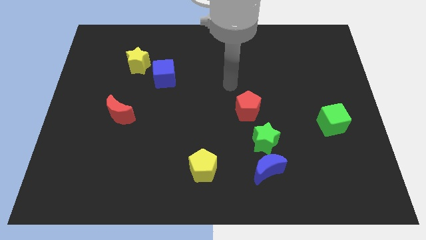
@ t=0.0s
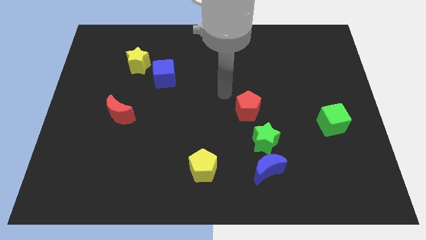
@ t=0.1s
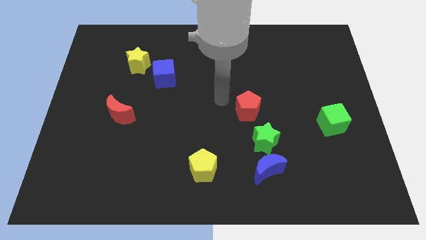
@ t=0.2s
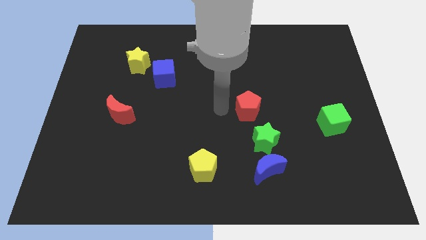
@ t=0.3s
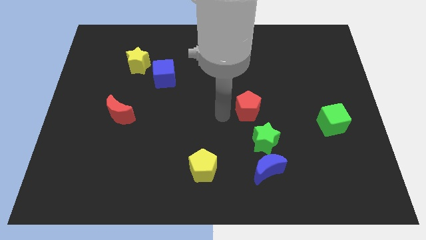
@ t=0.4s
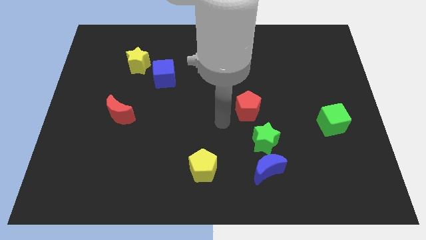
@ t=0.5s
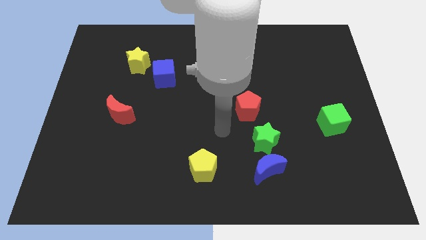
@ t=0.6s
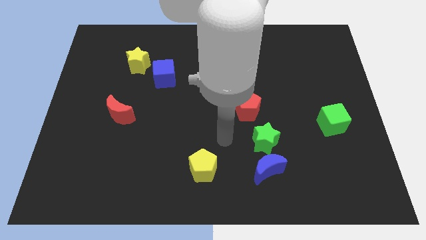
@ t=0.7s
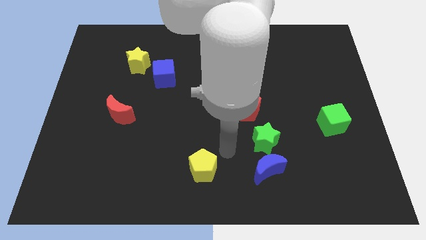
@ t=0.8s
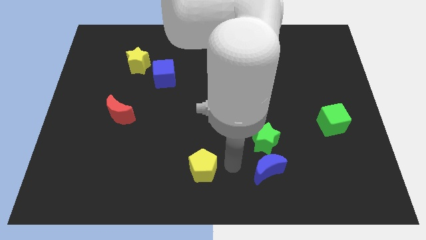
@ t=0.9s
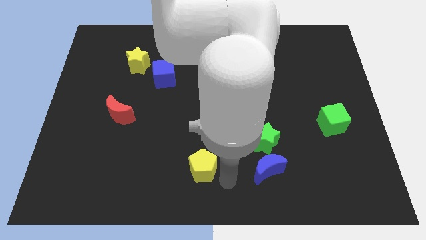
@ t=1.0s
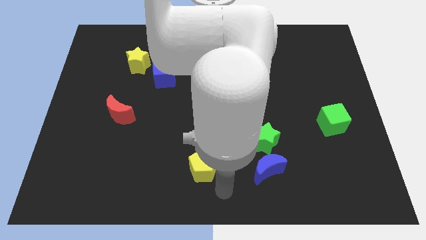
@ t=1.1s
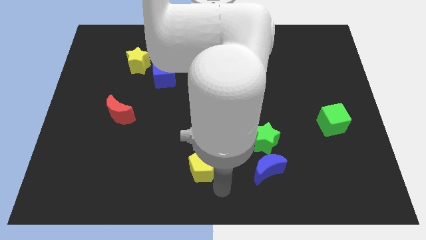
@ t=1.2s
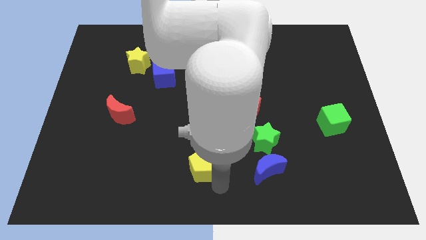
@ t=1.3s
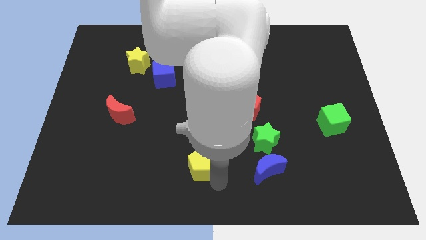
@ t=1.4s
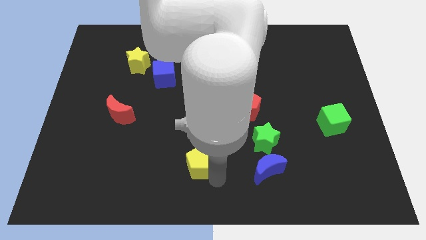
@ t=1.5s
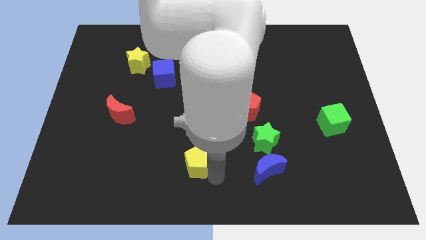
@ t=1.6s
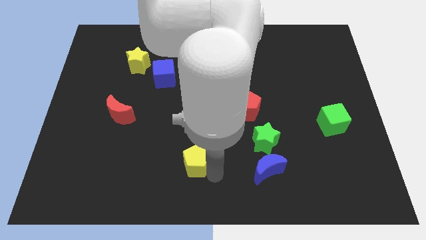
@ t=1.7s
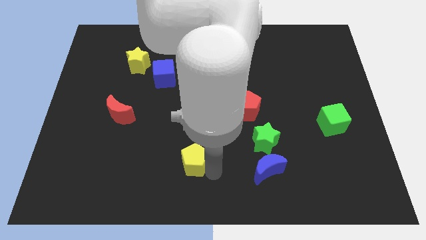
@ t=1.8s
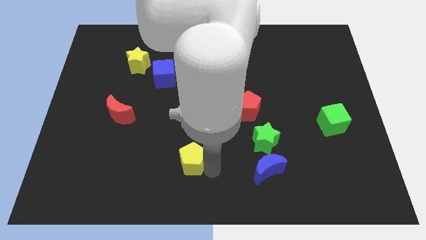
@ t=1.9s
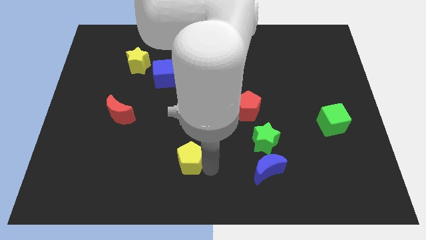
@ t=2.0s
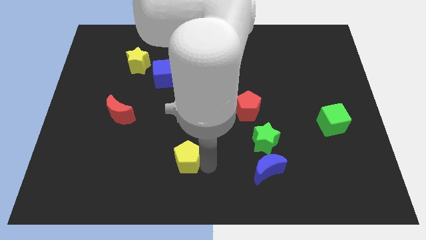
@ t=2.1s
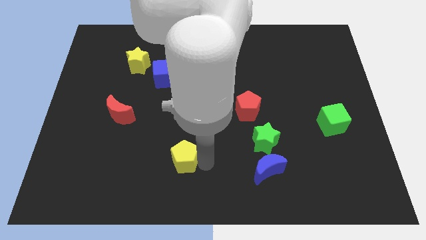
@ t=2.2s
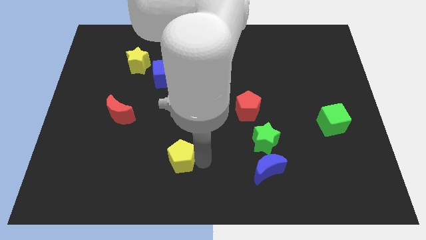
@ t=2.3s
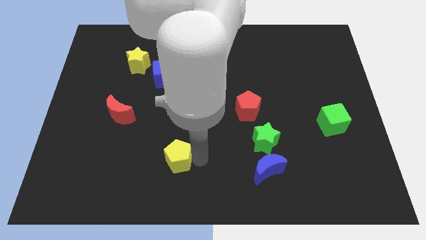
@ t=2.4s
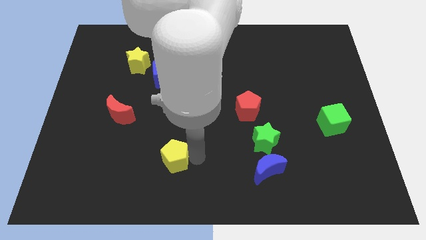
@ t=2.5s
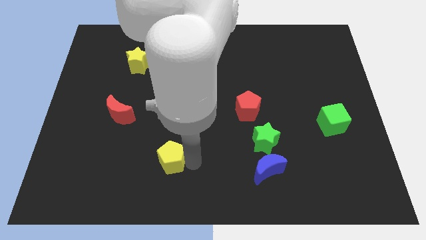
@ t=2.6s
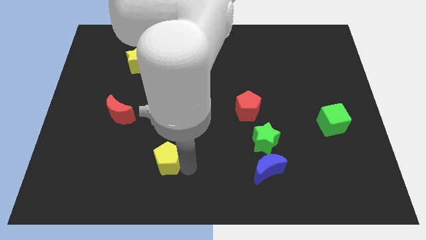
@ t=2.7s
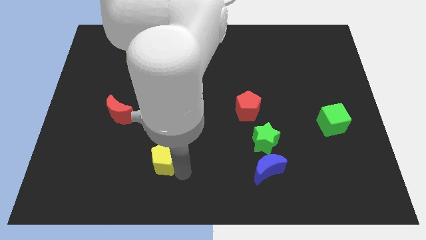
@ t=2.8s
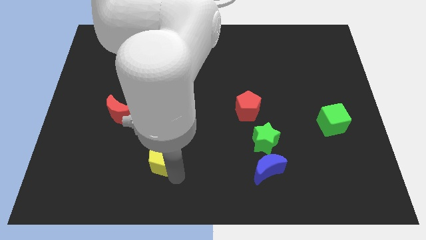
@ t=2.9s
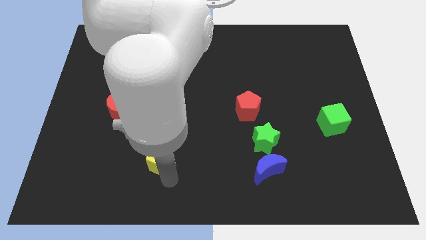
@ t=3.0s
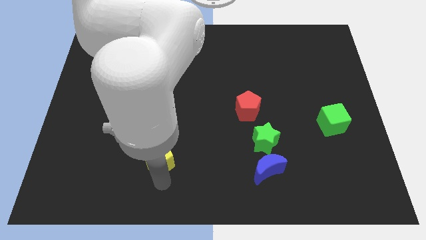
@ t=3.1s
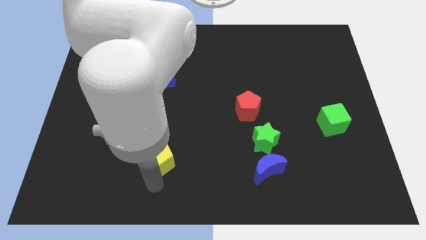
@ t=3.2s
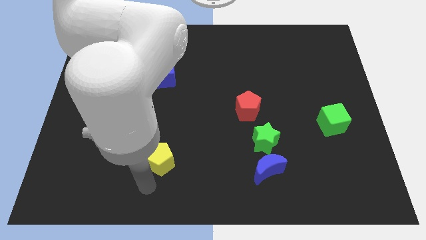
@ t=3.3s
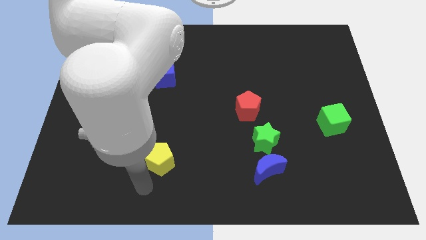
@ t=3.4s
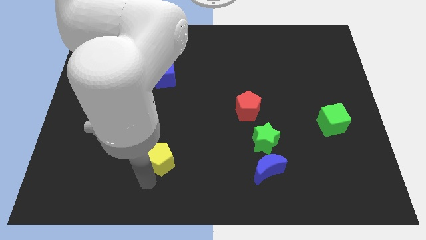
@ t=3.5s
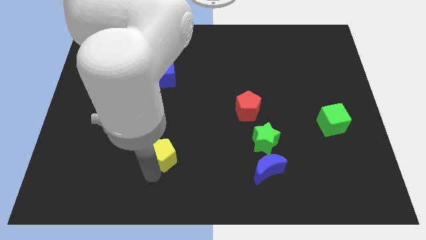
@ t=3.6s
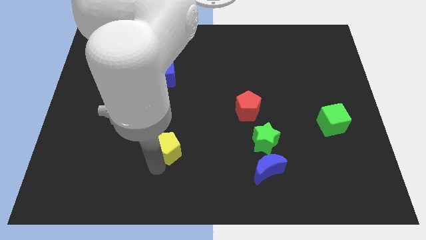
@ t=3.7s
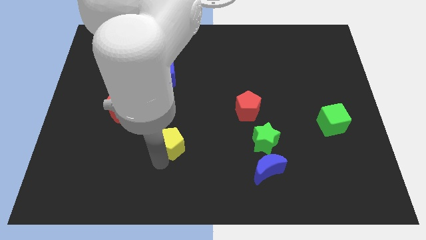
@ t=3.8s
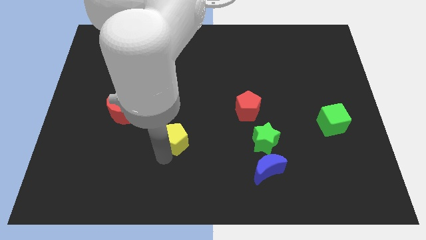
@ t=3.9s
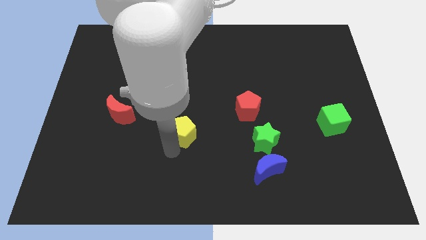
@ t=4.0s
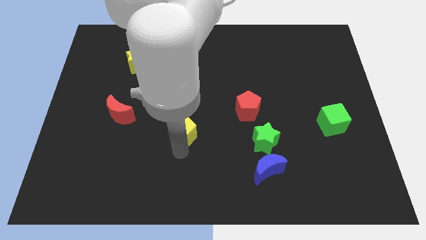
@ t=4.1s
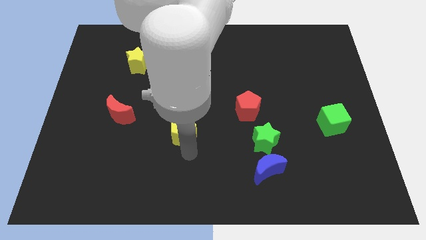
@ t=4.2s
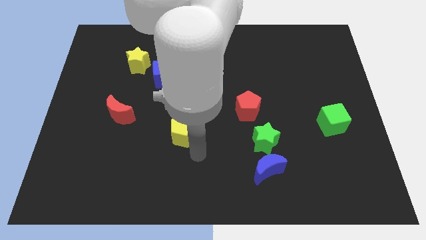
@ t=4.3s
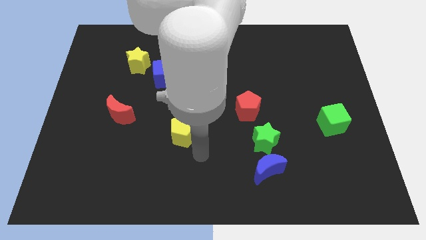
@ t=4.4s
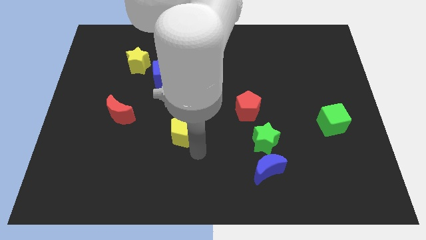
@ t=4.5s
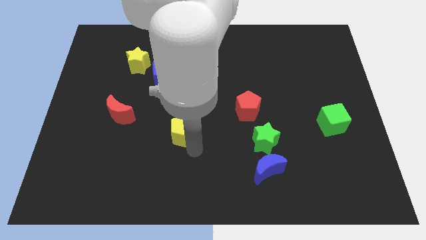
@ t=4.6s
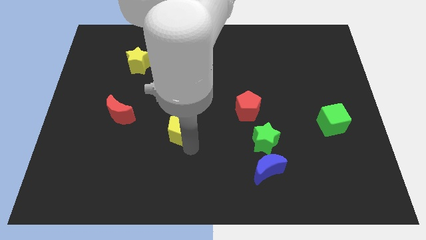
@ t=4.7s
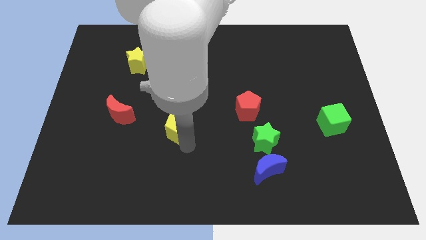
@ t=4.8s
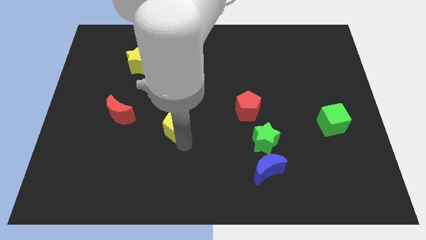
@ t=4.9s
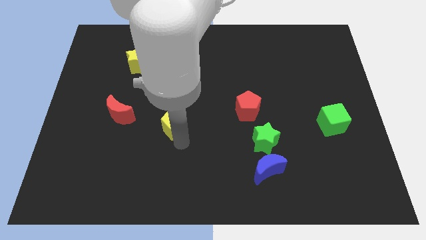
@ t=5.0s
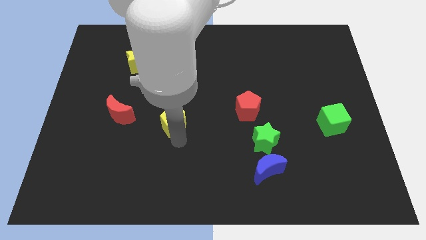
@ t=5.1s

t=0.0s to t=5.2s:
move the yellow pentagon to the bottom side of the blue cube

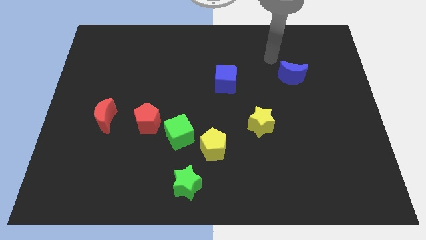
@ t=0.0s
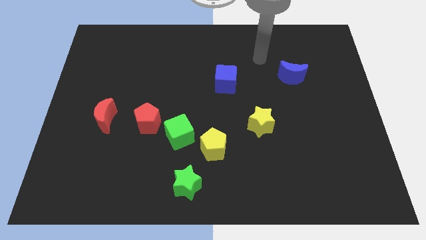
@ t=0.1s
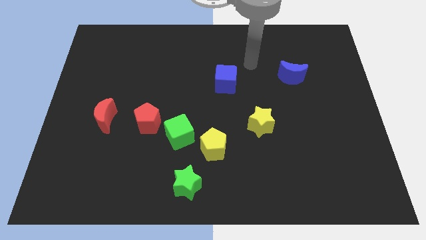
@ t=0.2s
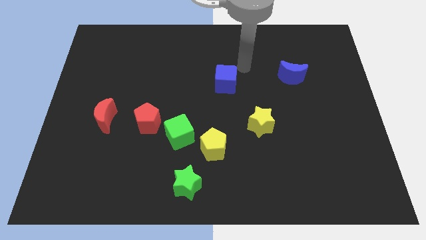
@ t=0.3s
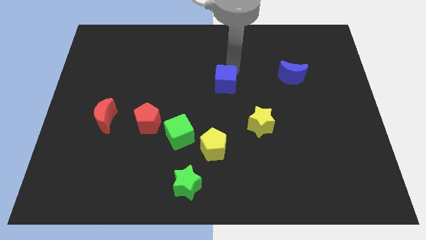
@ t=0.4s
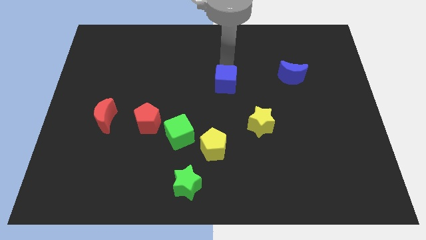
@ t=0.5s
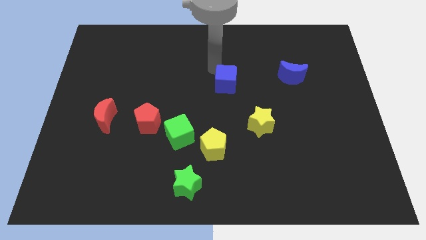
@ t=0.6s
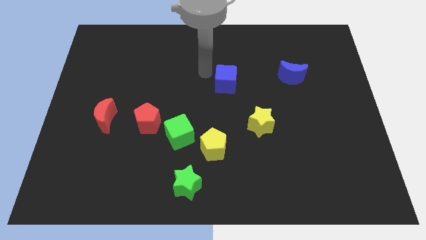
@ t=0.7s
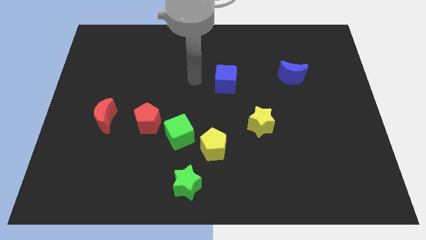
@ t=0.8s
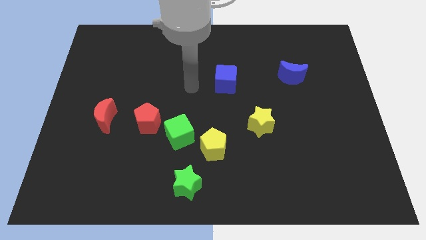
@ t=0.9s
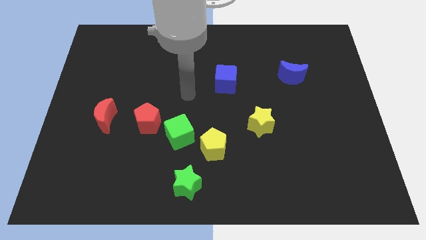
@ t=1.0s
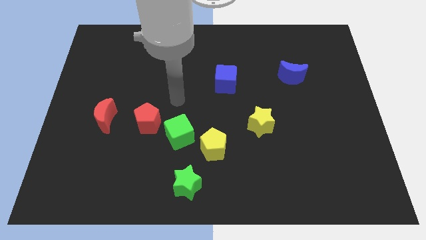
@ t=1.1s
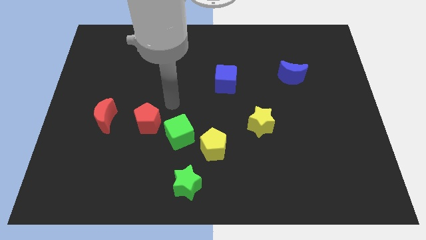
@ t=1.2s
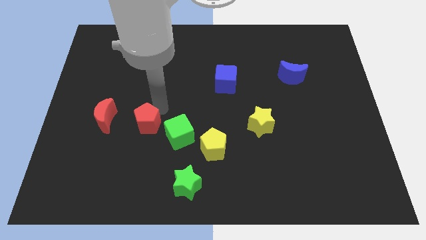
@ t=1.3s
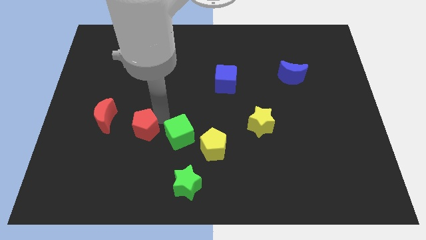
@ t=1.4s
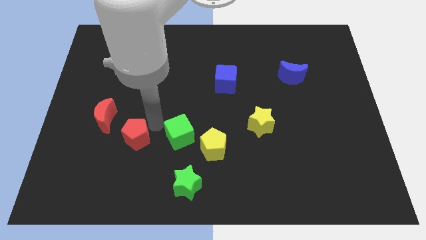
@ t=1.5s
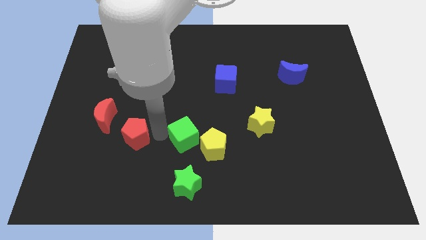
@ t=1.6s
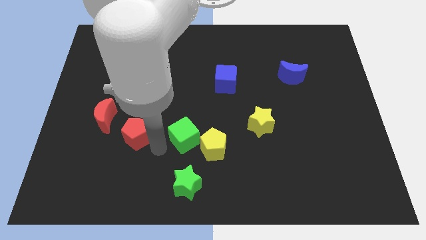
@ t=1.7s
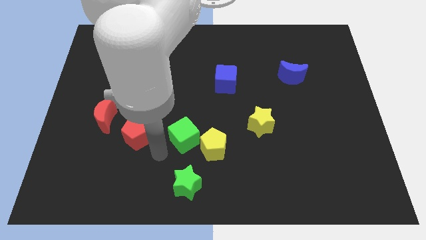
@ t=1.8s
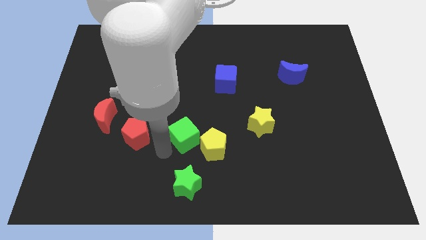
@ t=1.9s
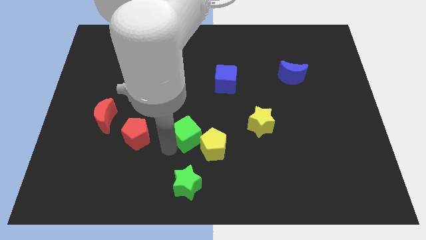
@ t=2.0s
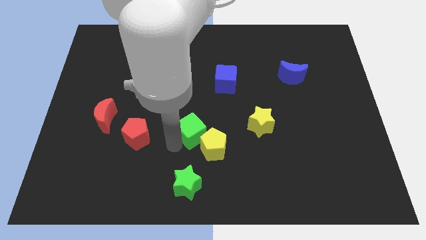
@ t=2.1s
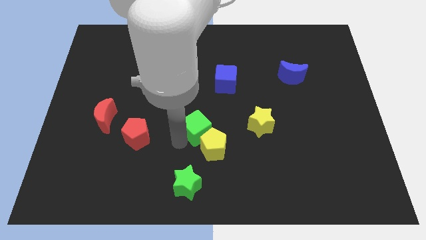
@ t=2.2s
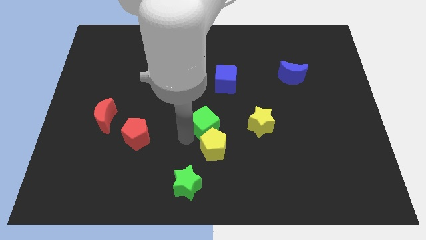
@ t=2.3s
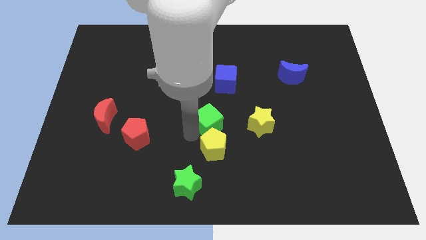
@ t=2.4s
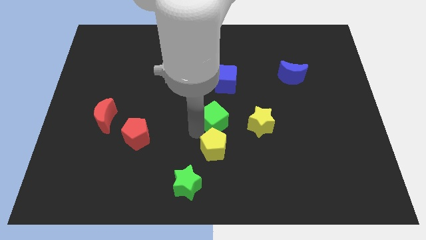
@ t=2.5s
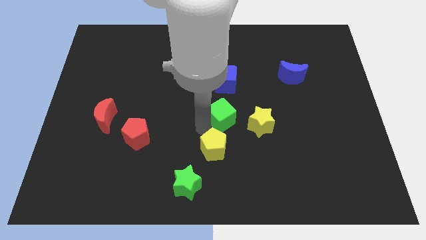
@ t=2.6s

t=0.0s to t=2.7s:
slide the green cube diagonally up and to the left of the yellow star
